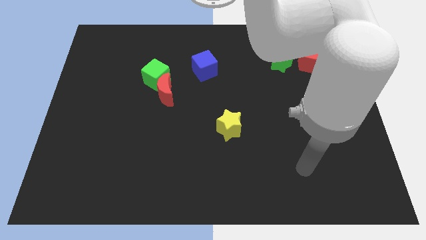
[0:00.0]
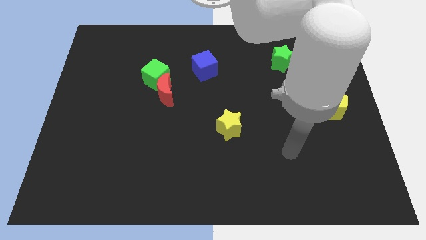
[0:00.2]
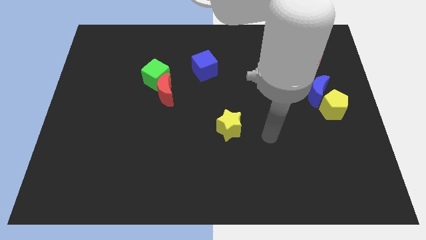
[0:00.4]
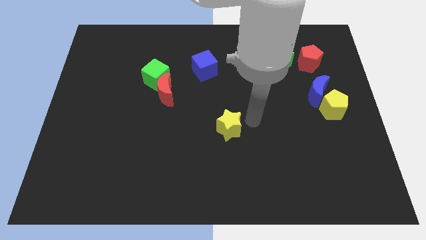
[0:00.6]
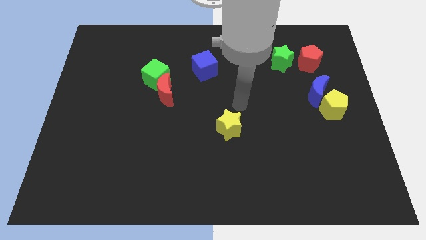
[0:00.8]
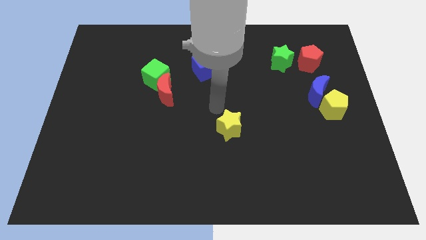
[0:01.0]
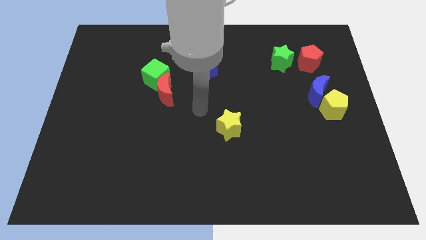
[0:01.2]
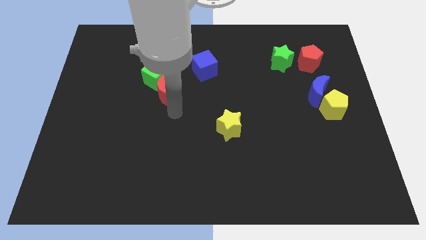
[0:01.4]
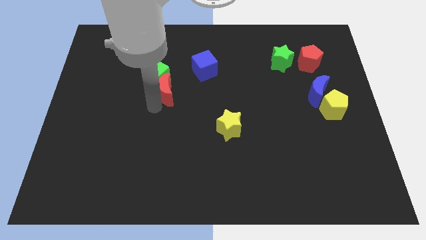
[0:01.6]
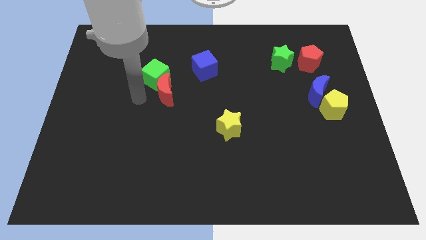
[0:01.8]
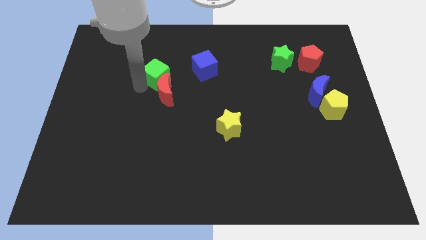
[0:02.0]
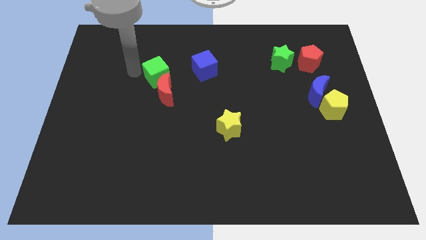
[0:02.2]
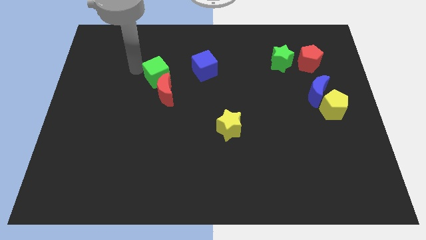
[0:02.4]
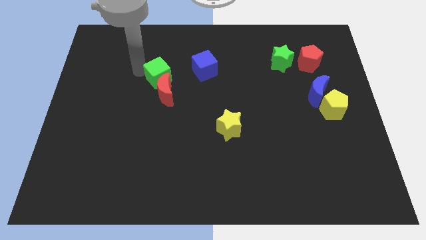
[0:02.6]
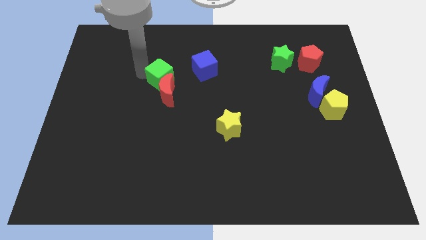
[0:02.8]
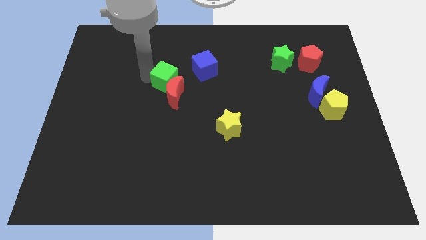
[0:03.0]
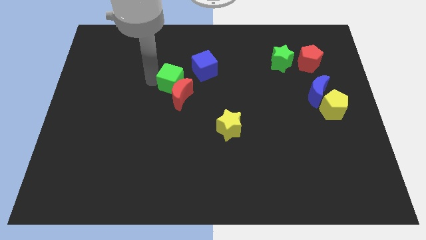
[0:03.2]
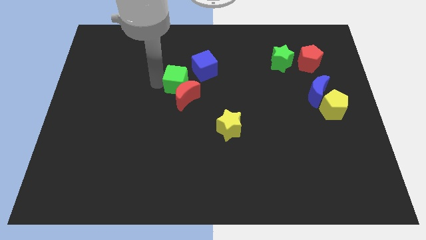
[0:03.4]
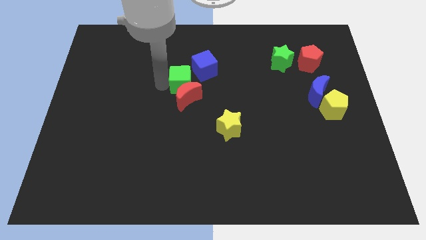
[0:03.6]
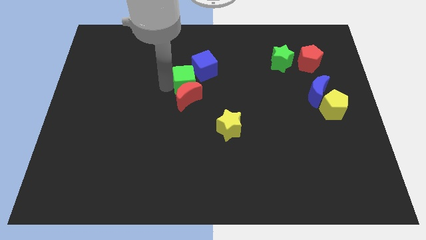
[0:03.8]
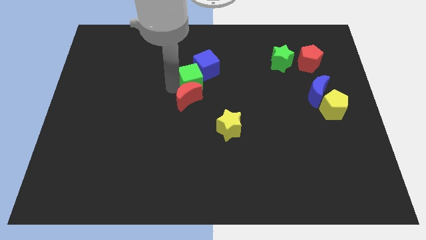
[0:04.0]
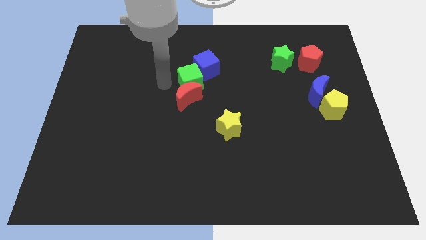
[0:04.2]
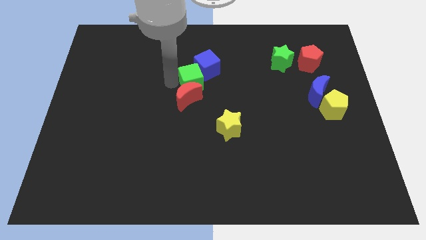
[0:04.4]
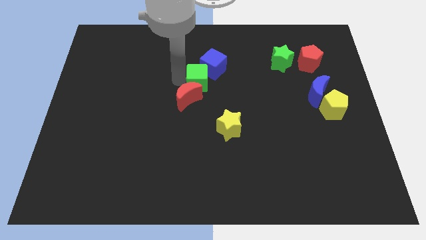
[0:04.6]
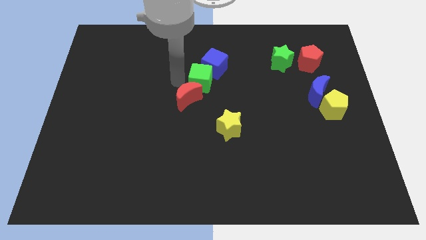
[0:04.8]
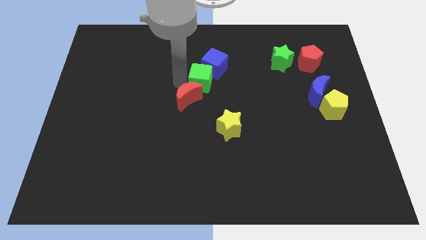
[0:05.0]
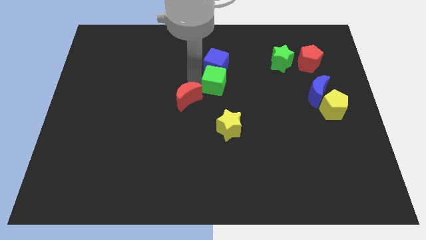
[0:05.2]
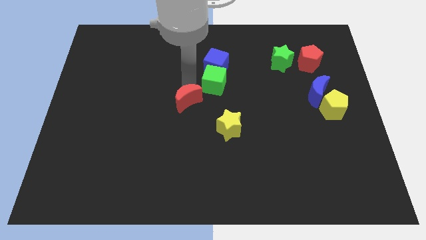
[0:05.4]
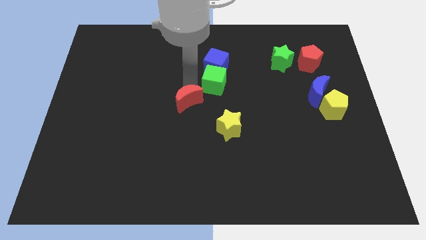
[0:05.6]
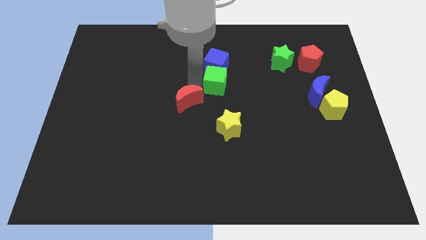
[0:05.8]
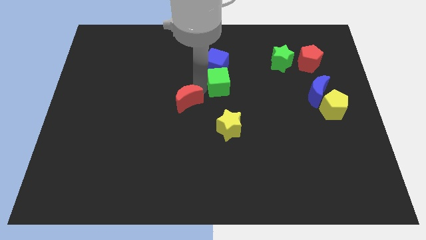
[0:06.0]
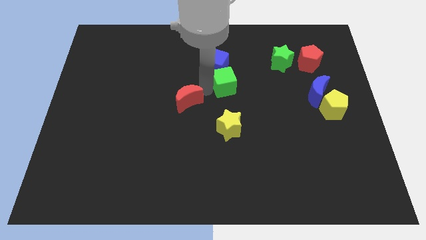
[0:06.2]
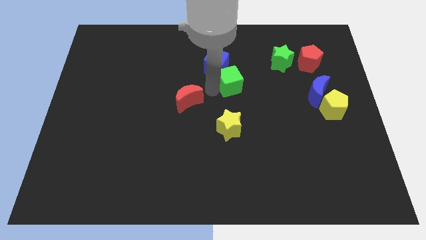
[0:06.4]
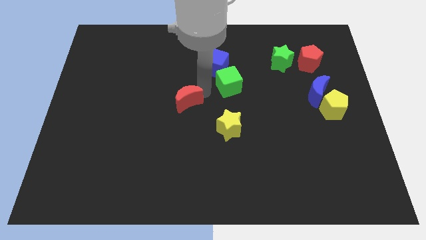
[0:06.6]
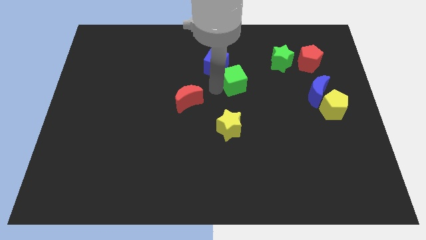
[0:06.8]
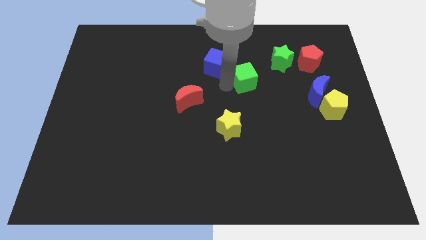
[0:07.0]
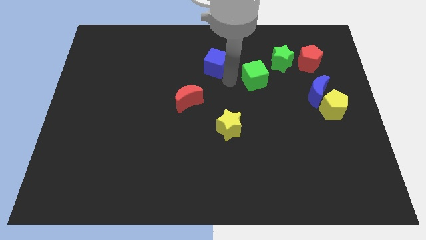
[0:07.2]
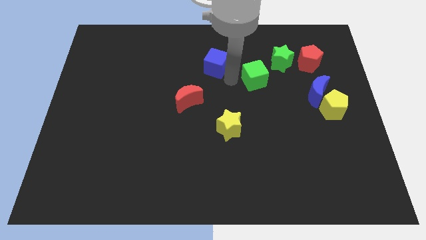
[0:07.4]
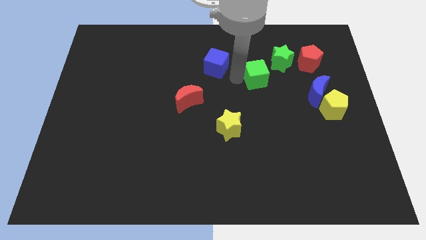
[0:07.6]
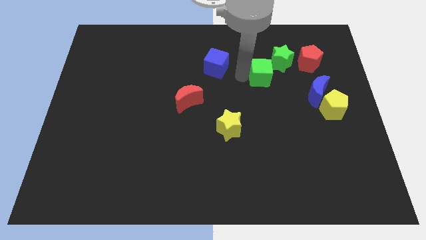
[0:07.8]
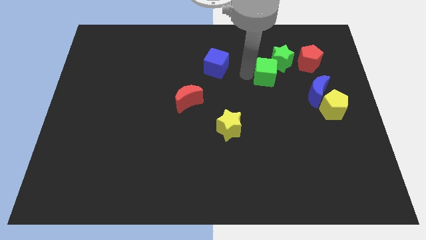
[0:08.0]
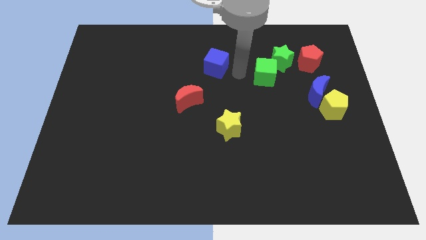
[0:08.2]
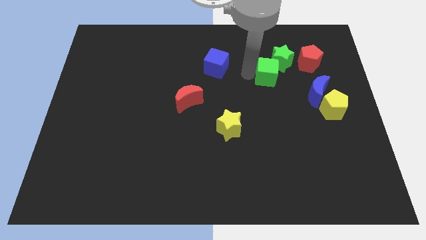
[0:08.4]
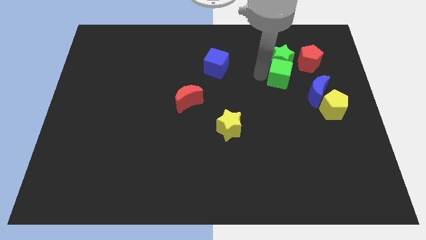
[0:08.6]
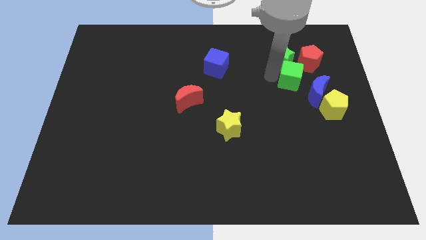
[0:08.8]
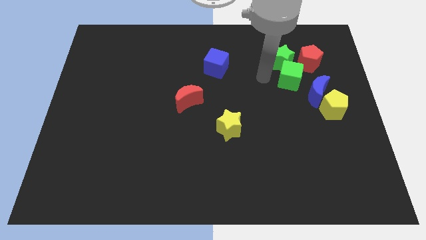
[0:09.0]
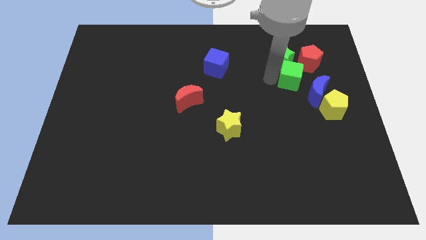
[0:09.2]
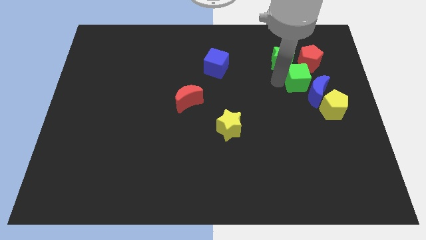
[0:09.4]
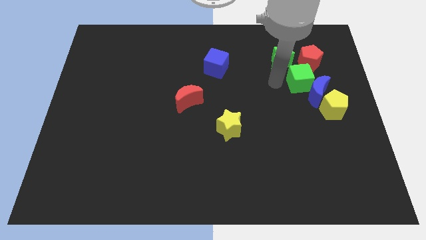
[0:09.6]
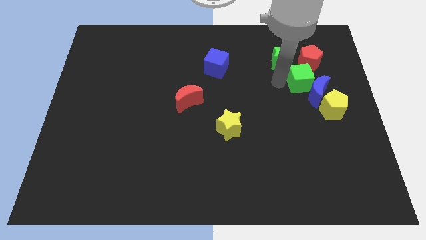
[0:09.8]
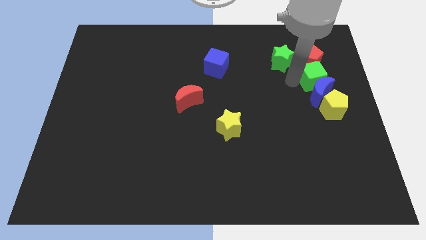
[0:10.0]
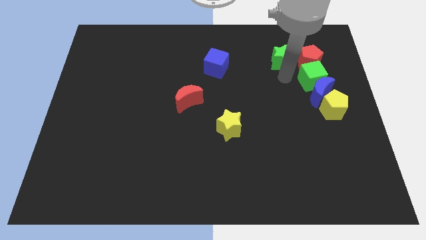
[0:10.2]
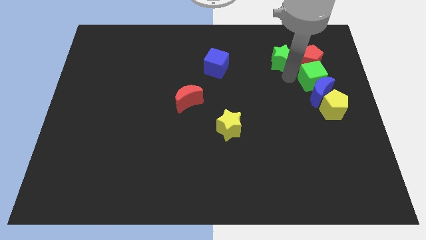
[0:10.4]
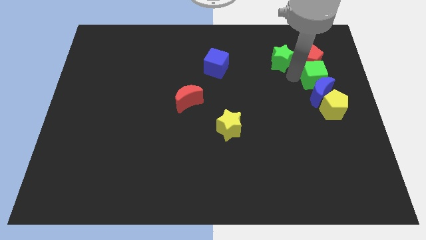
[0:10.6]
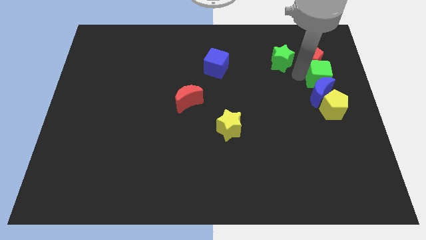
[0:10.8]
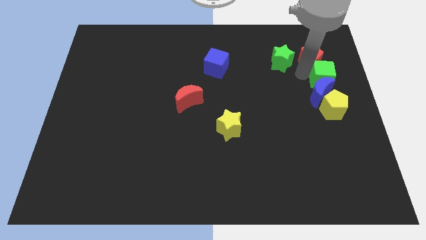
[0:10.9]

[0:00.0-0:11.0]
put the green cube to the right side of the board
